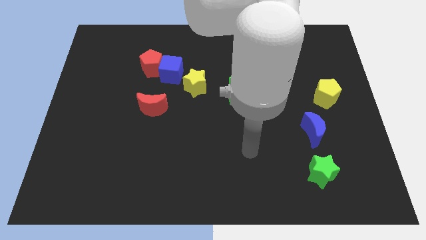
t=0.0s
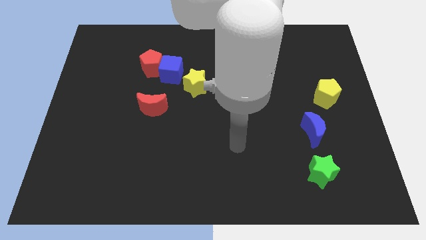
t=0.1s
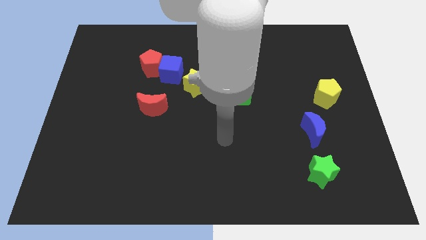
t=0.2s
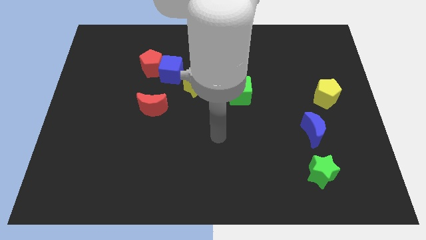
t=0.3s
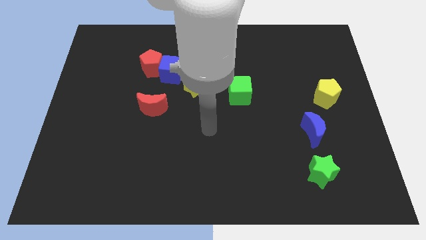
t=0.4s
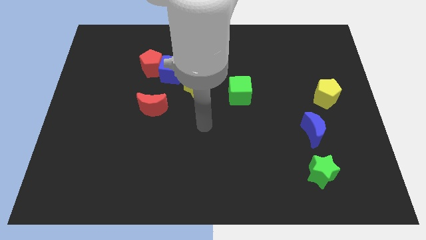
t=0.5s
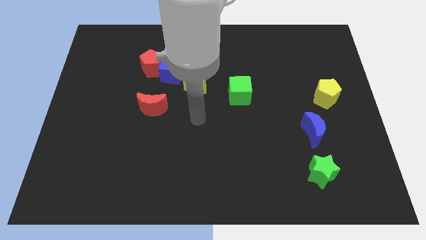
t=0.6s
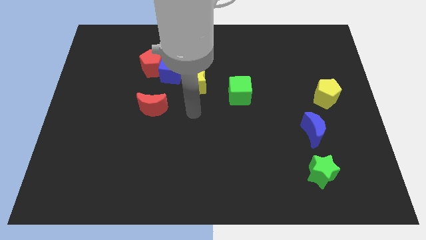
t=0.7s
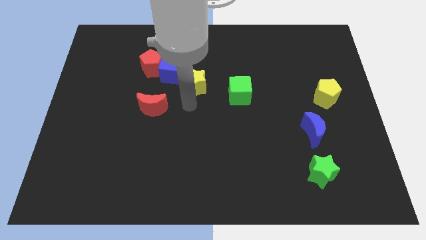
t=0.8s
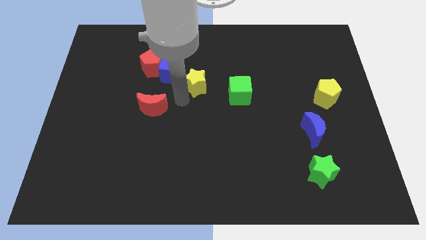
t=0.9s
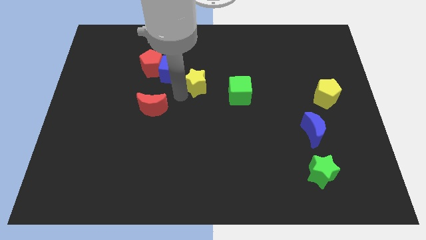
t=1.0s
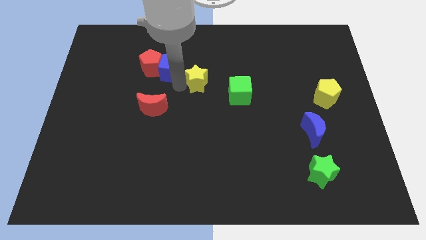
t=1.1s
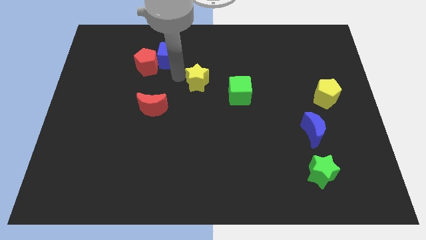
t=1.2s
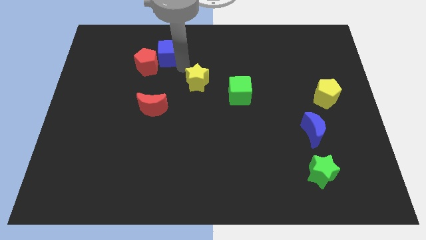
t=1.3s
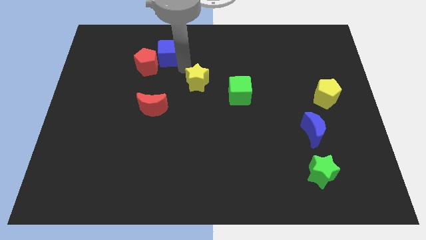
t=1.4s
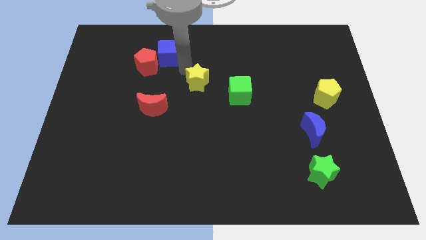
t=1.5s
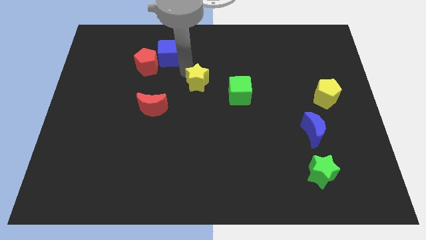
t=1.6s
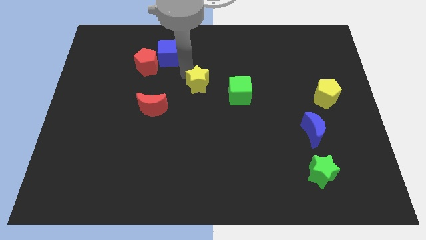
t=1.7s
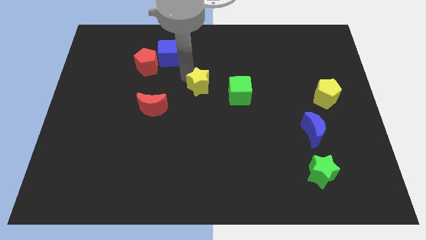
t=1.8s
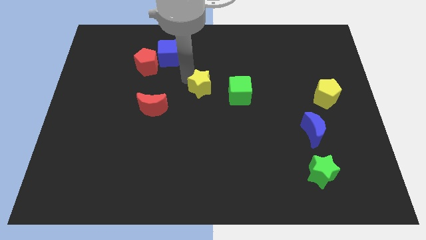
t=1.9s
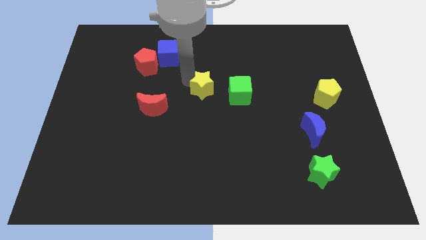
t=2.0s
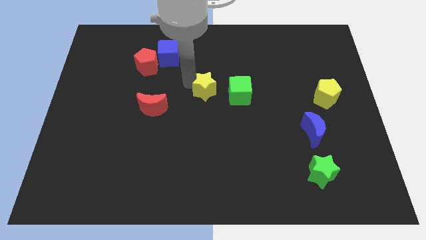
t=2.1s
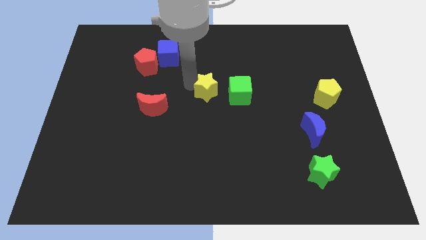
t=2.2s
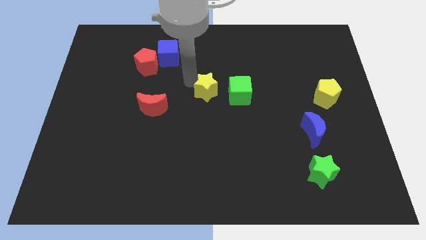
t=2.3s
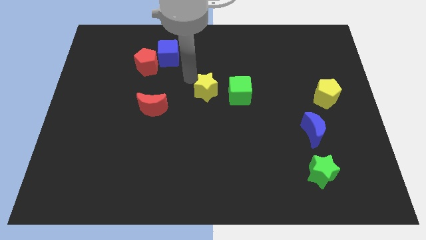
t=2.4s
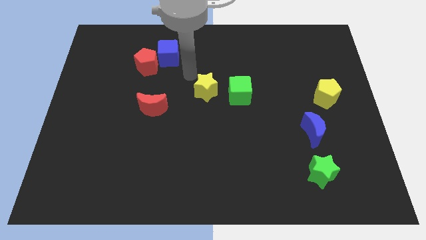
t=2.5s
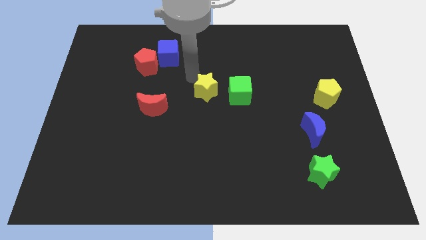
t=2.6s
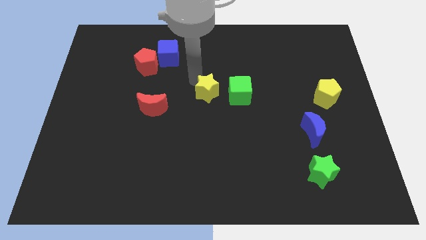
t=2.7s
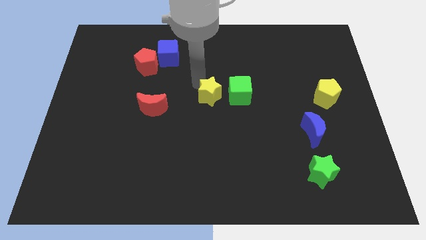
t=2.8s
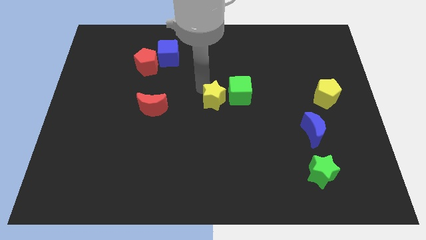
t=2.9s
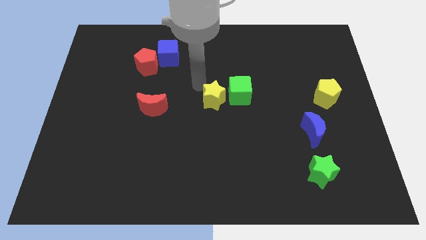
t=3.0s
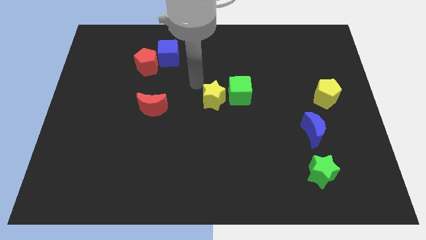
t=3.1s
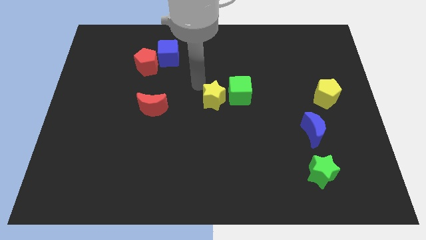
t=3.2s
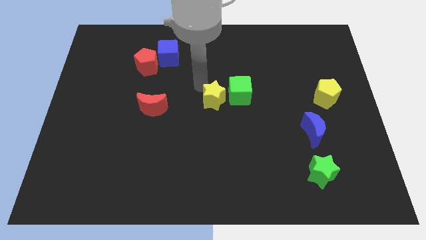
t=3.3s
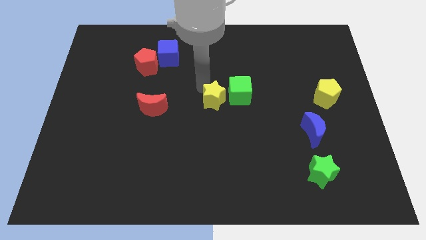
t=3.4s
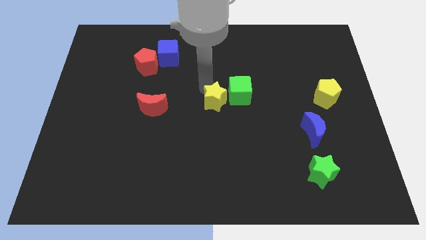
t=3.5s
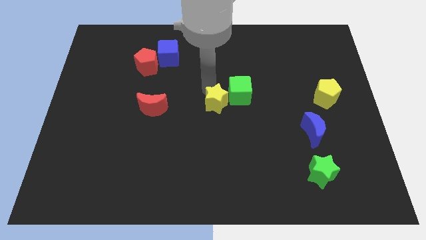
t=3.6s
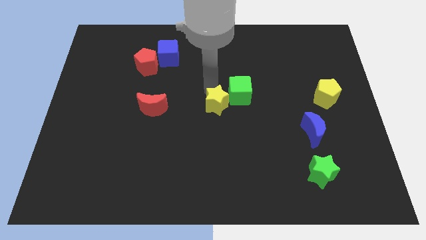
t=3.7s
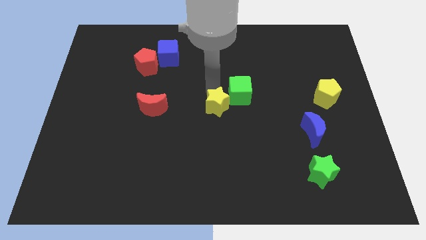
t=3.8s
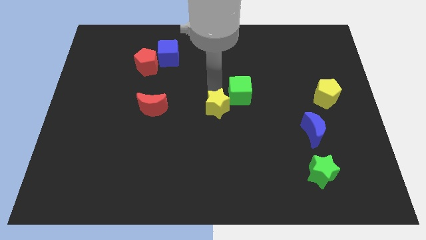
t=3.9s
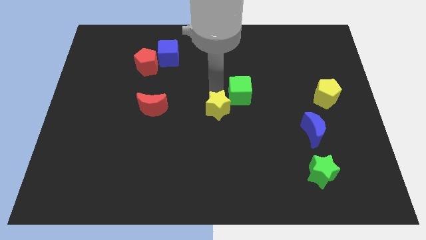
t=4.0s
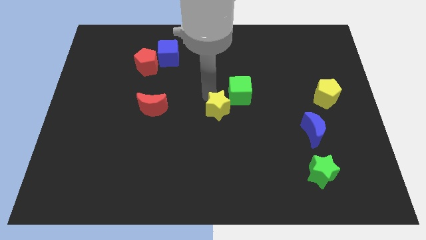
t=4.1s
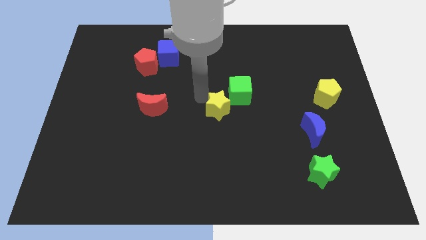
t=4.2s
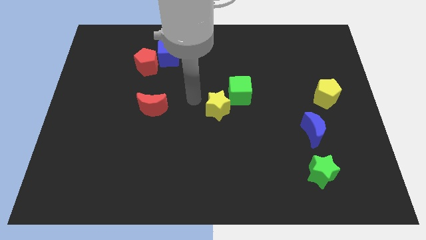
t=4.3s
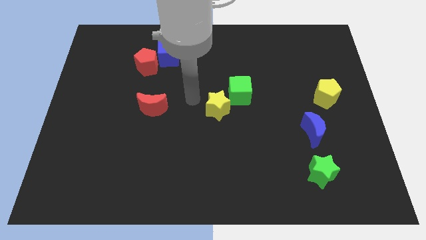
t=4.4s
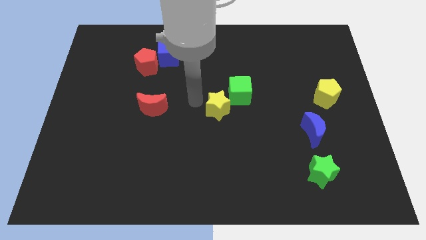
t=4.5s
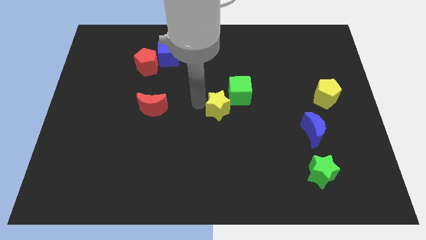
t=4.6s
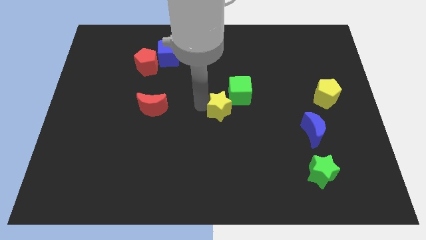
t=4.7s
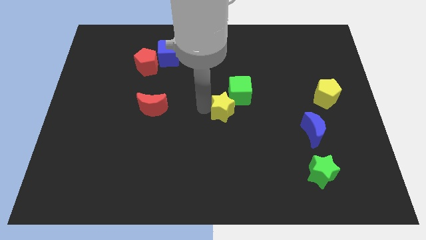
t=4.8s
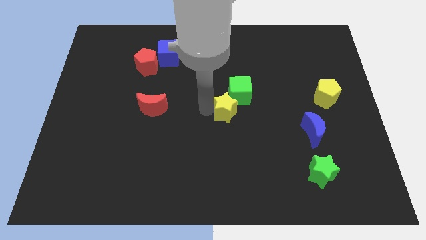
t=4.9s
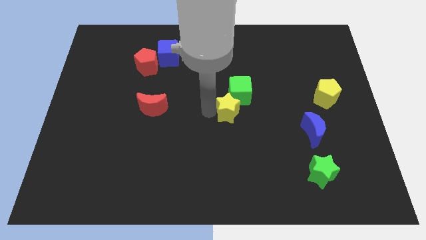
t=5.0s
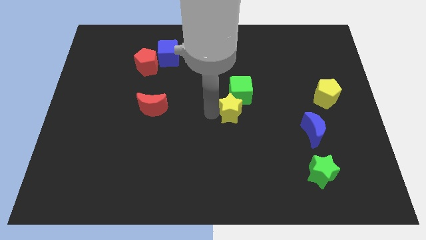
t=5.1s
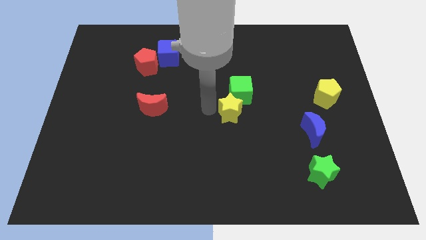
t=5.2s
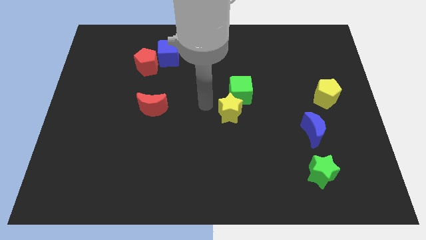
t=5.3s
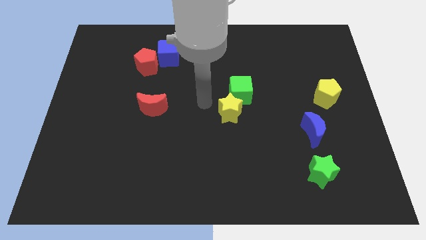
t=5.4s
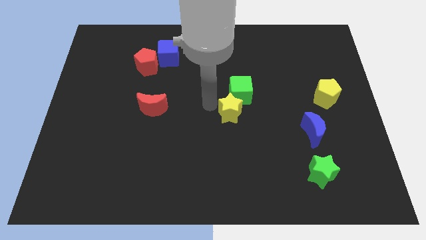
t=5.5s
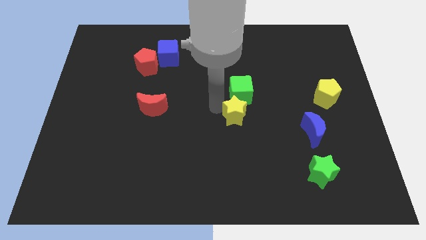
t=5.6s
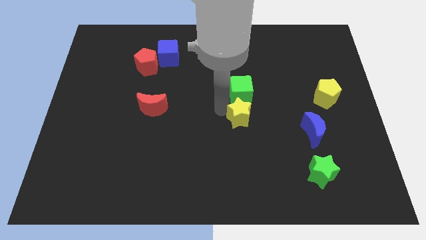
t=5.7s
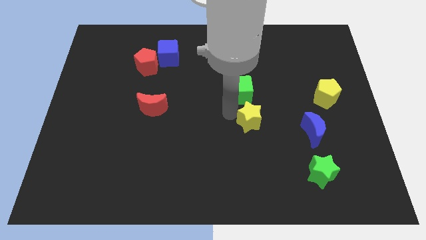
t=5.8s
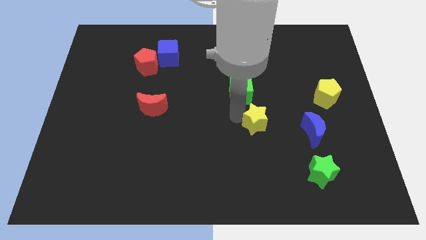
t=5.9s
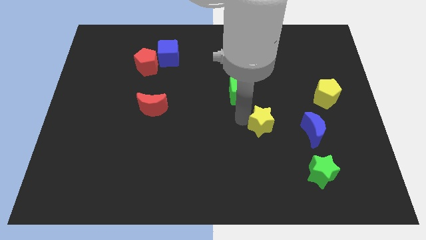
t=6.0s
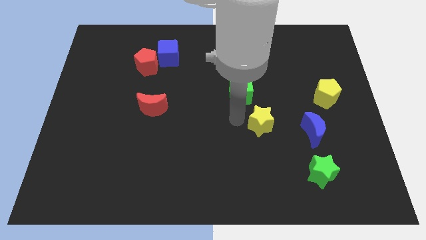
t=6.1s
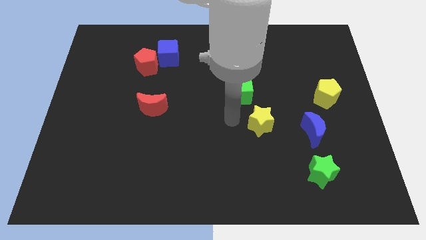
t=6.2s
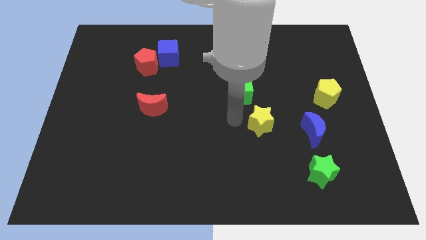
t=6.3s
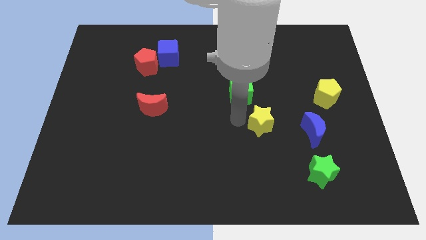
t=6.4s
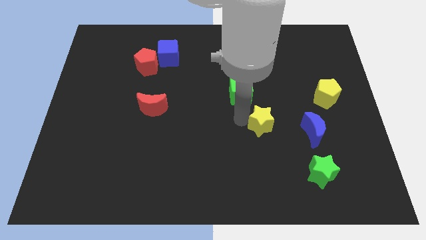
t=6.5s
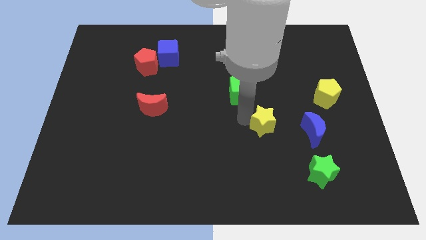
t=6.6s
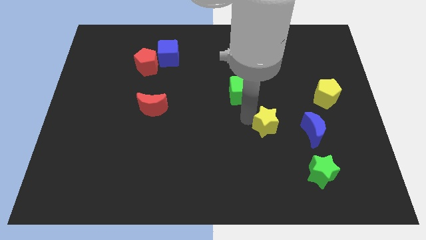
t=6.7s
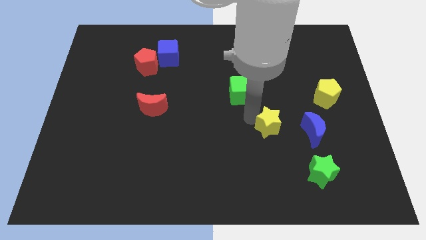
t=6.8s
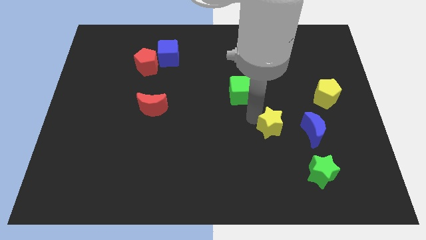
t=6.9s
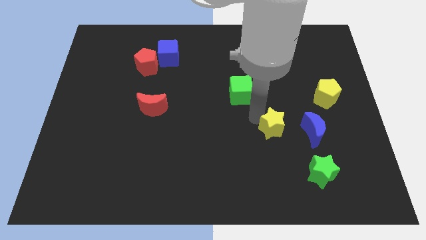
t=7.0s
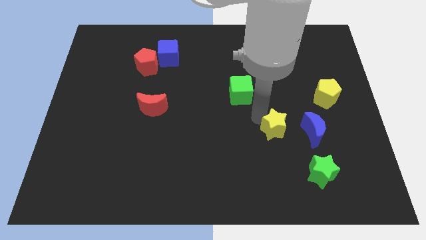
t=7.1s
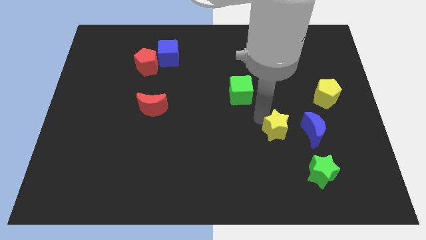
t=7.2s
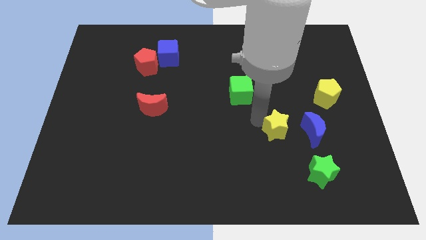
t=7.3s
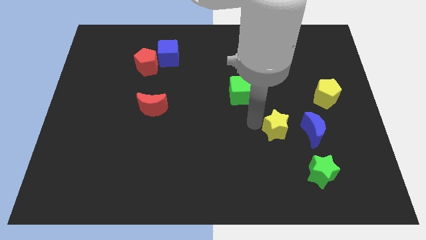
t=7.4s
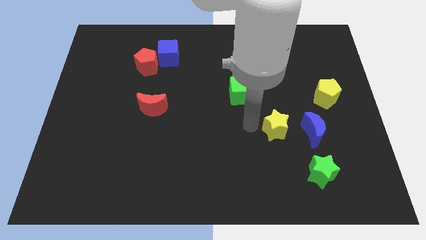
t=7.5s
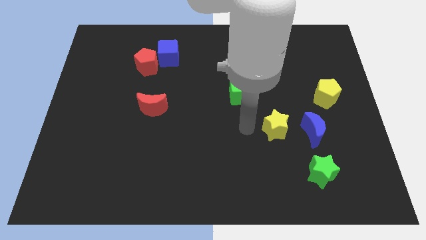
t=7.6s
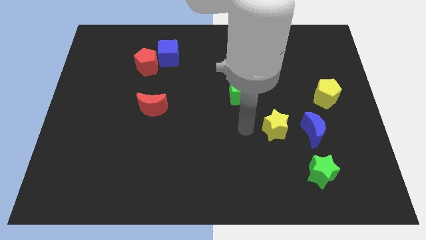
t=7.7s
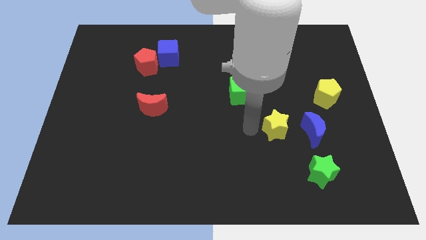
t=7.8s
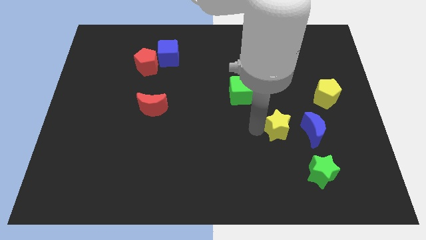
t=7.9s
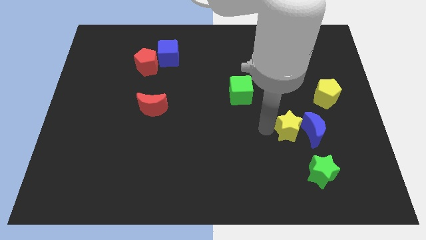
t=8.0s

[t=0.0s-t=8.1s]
move the yellow star next to the blue moon

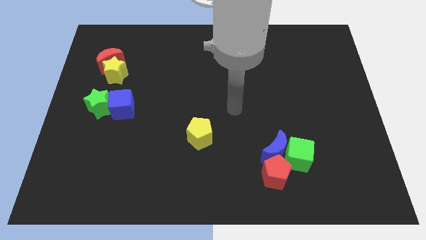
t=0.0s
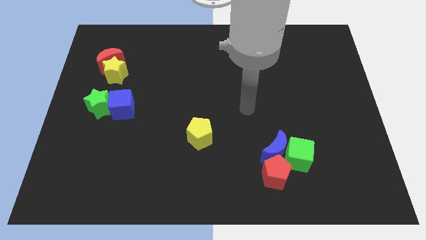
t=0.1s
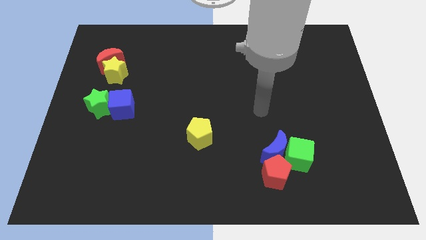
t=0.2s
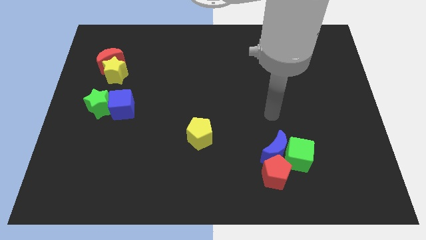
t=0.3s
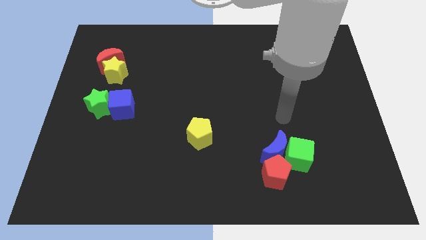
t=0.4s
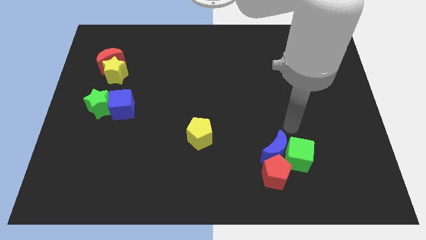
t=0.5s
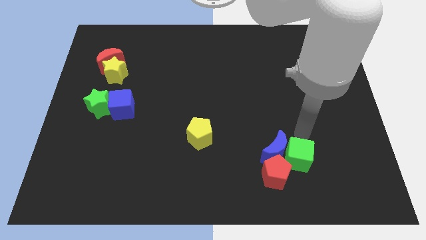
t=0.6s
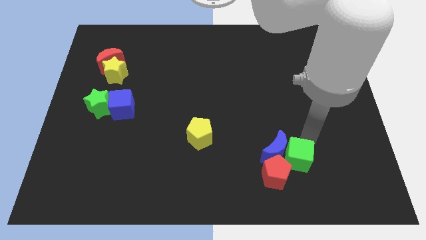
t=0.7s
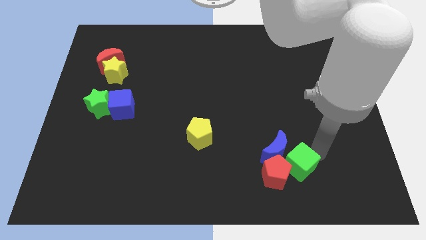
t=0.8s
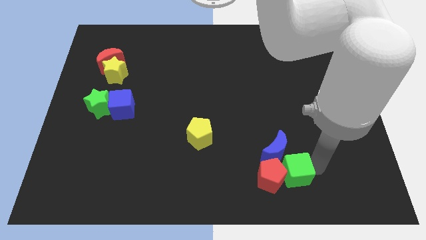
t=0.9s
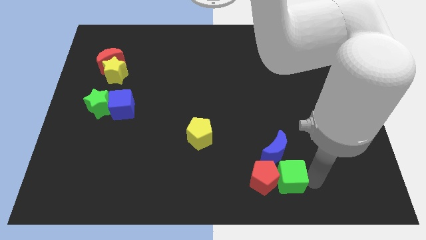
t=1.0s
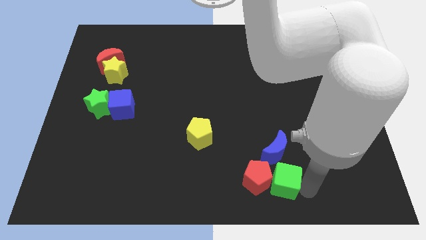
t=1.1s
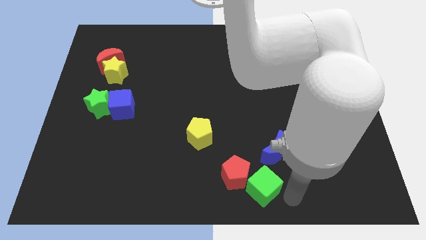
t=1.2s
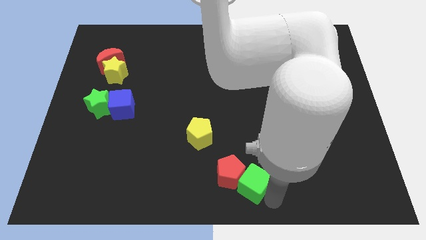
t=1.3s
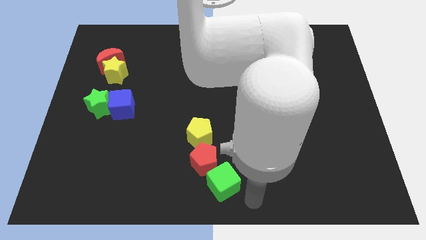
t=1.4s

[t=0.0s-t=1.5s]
put the red pentagon towards the yellow pentagon
